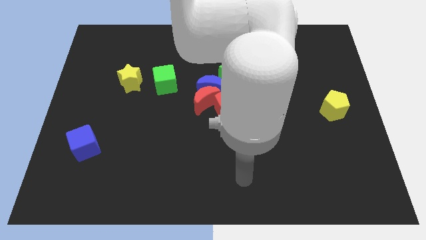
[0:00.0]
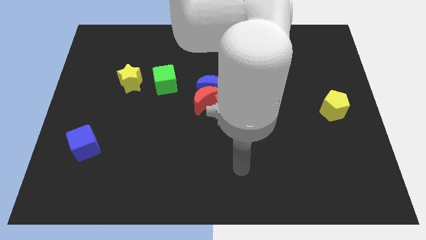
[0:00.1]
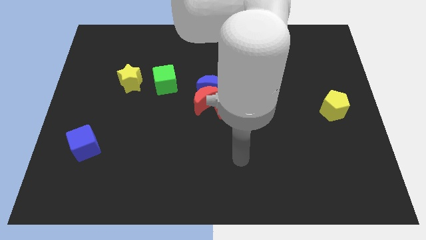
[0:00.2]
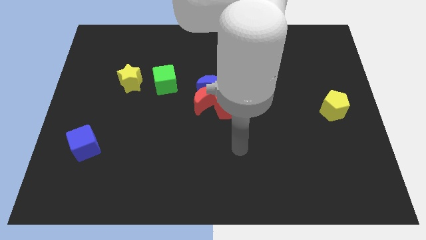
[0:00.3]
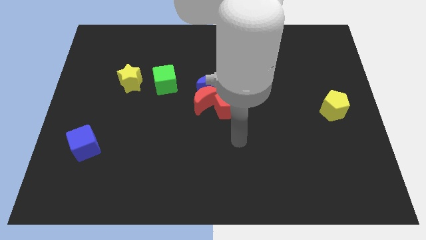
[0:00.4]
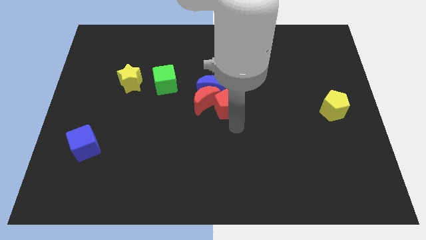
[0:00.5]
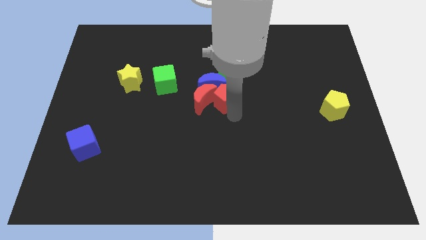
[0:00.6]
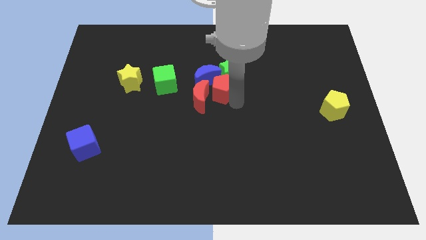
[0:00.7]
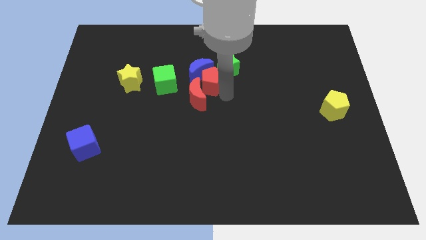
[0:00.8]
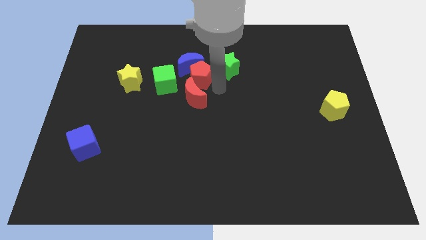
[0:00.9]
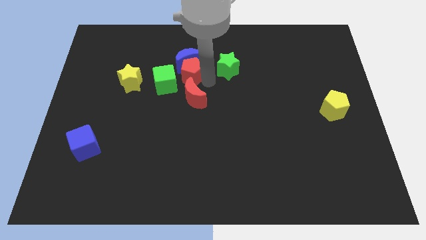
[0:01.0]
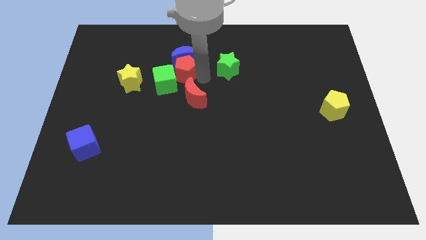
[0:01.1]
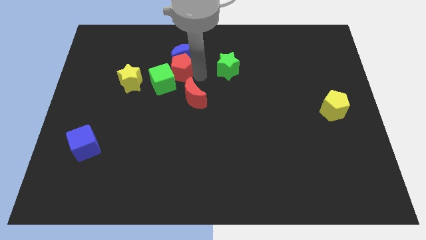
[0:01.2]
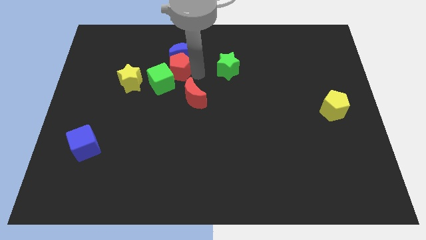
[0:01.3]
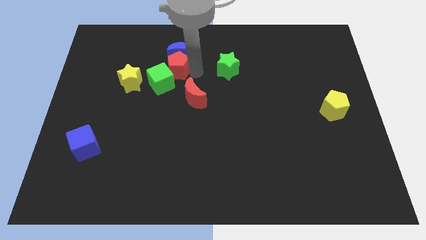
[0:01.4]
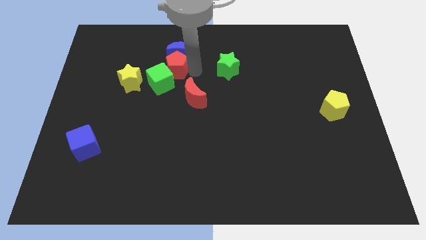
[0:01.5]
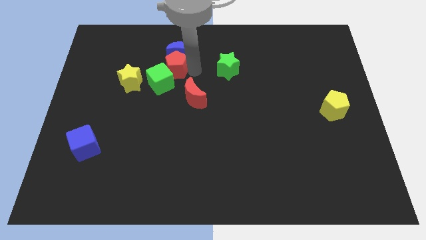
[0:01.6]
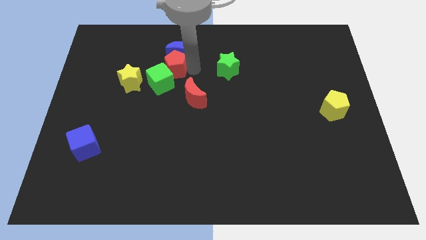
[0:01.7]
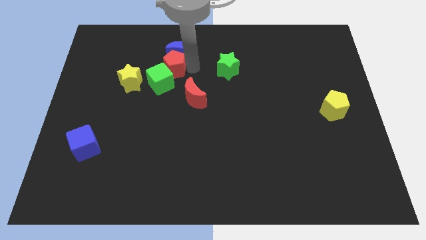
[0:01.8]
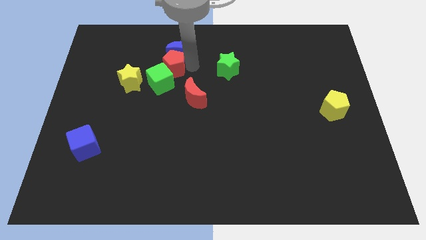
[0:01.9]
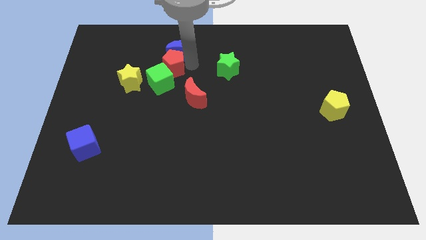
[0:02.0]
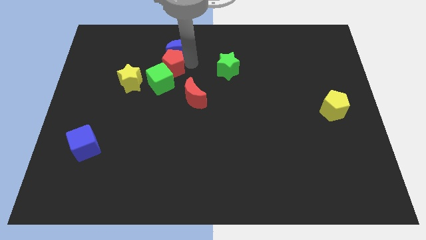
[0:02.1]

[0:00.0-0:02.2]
pull the blue moon apart from the clump

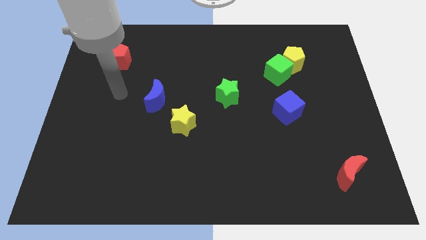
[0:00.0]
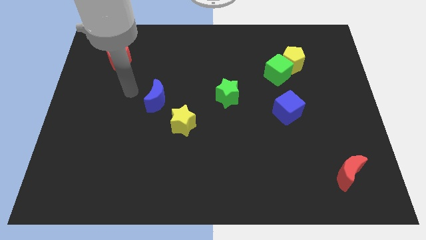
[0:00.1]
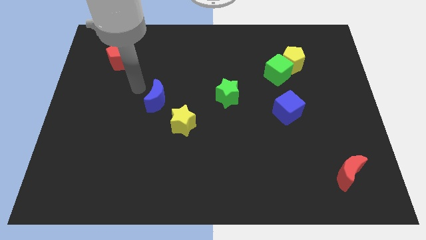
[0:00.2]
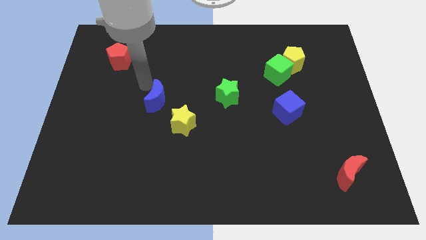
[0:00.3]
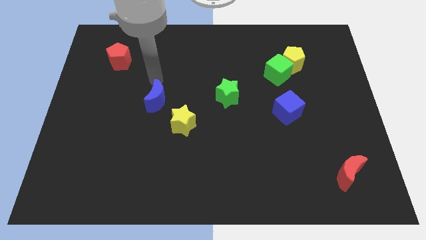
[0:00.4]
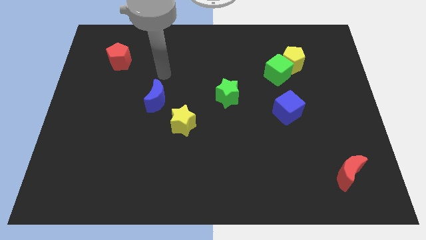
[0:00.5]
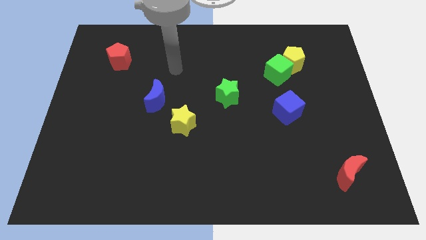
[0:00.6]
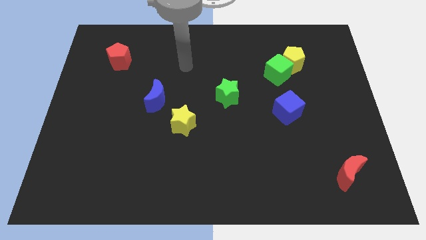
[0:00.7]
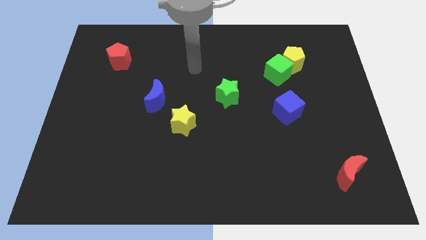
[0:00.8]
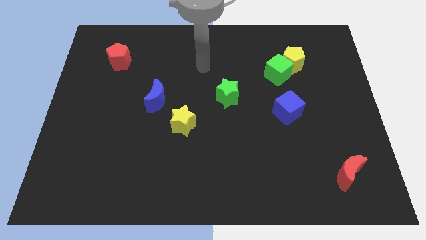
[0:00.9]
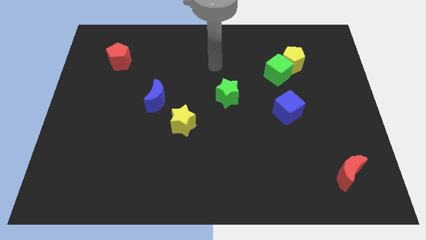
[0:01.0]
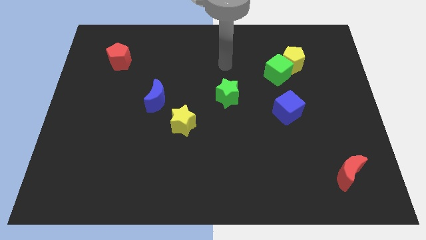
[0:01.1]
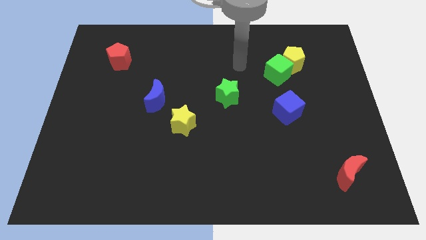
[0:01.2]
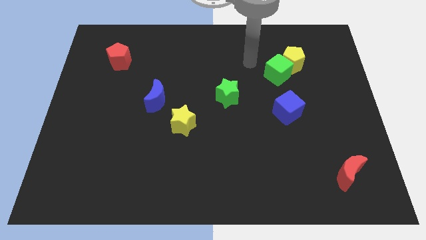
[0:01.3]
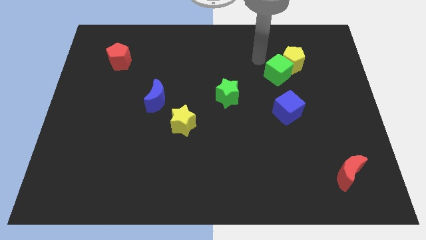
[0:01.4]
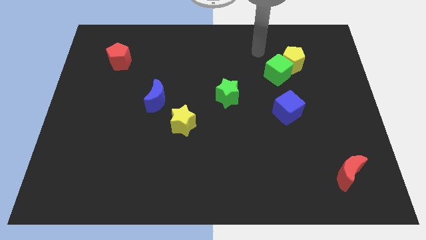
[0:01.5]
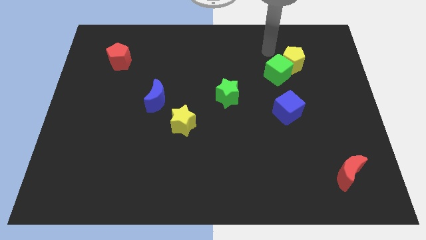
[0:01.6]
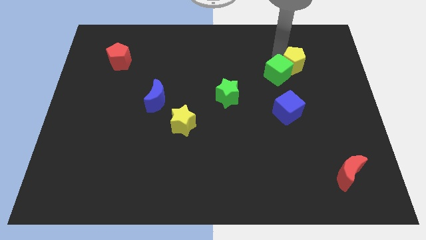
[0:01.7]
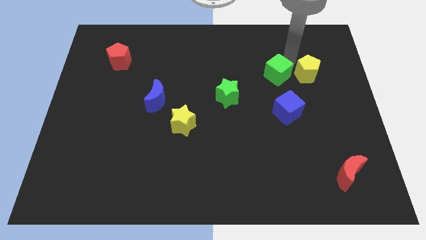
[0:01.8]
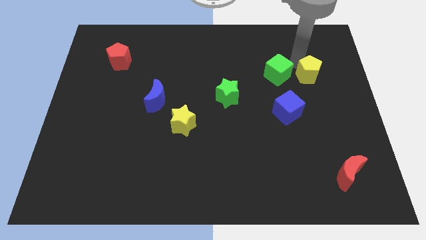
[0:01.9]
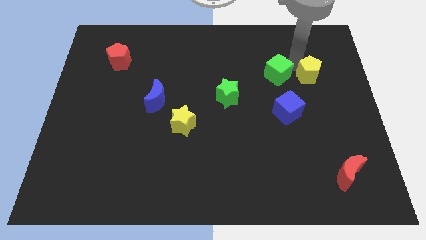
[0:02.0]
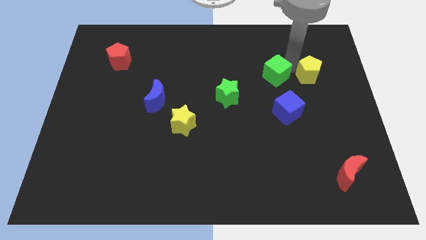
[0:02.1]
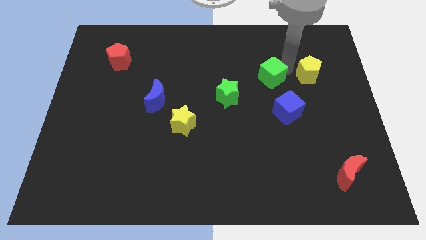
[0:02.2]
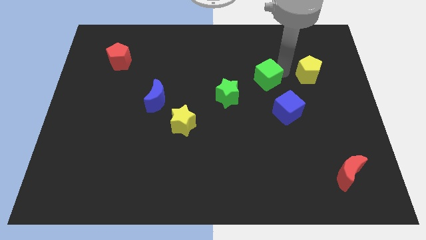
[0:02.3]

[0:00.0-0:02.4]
move the green cube away from the yellow pentagon

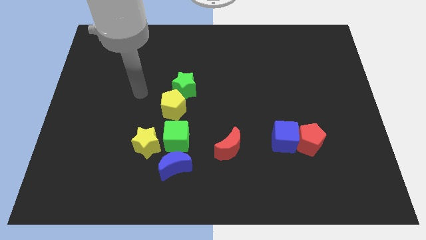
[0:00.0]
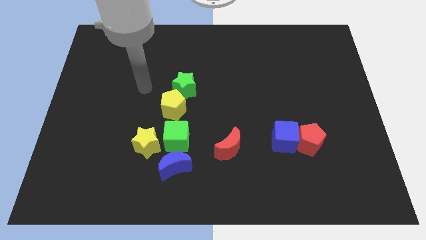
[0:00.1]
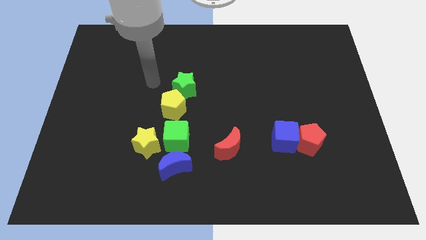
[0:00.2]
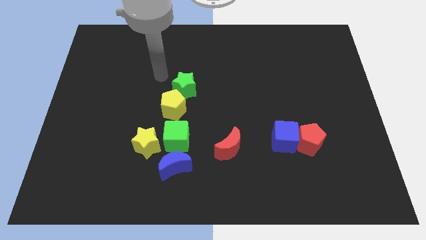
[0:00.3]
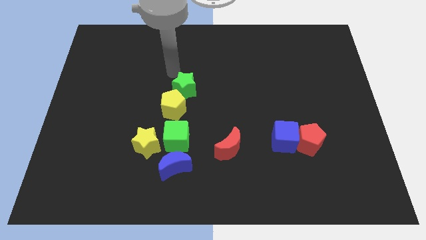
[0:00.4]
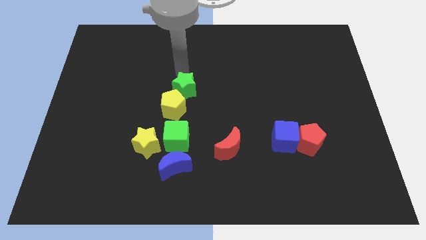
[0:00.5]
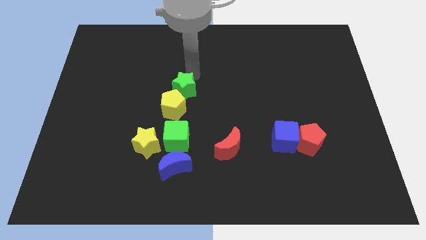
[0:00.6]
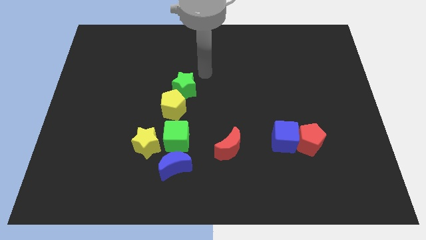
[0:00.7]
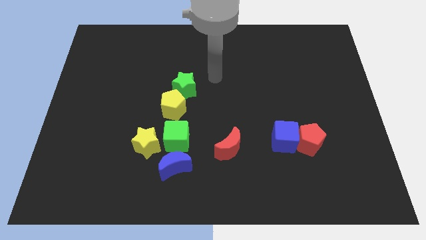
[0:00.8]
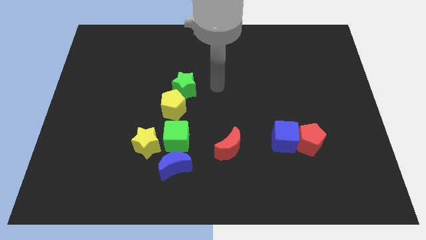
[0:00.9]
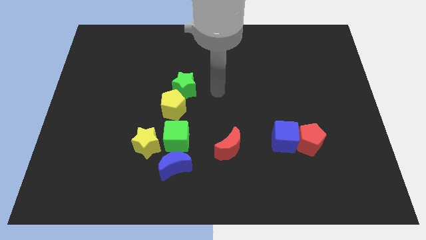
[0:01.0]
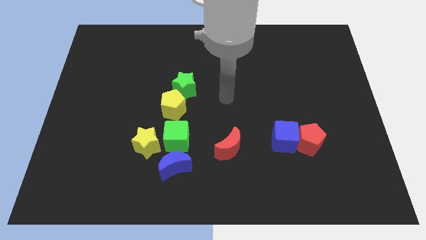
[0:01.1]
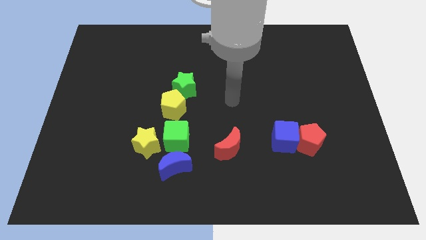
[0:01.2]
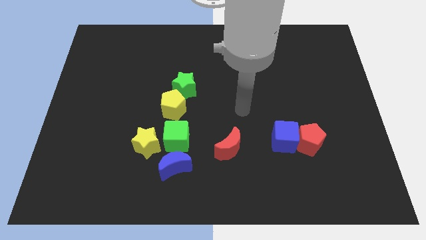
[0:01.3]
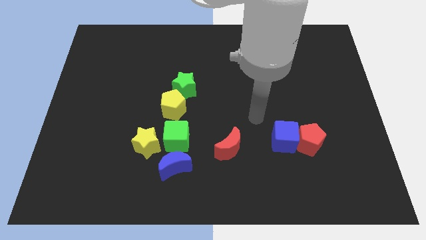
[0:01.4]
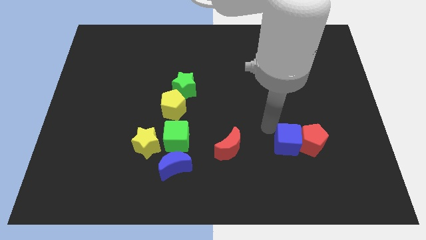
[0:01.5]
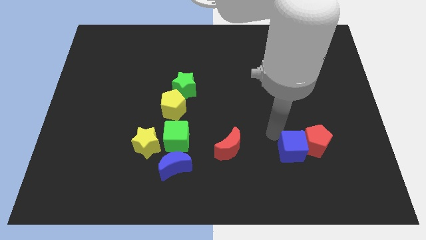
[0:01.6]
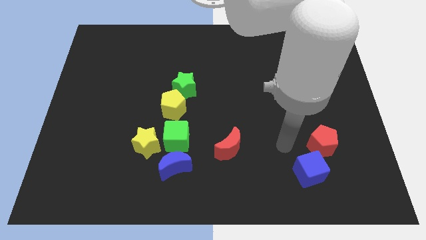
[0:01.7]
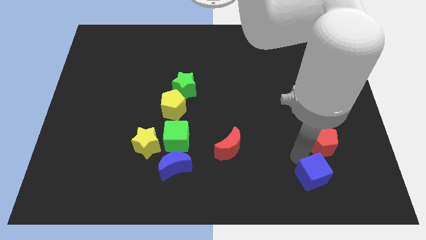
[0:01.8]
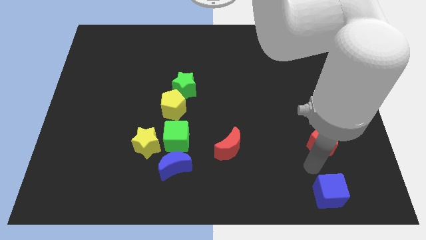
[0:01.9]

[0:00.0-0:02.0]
move the red pentagon away from the blue cube

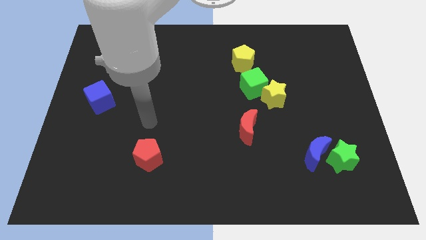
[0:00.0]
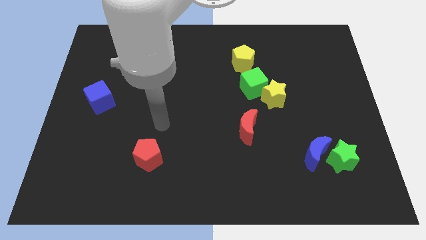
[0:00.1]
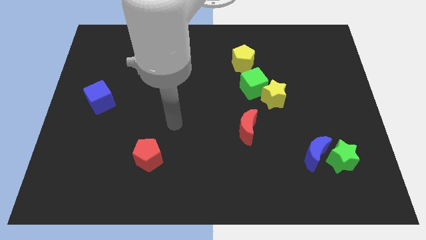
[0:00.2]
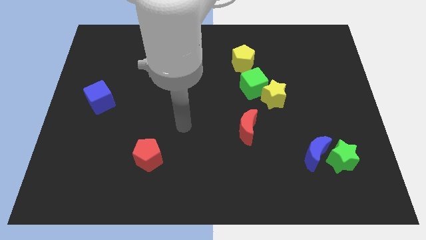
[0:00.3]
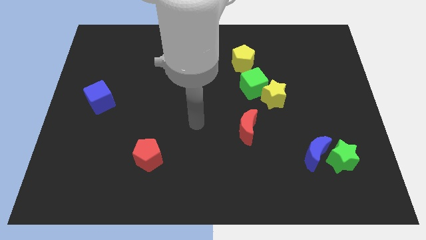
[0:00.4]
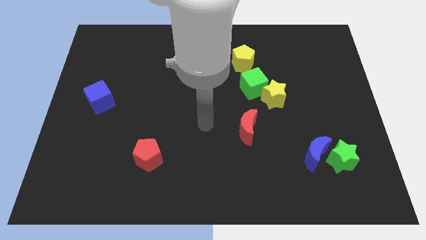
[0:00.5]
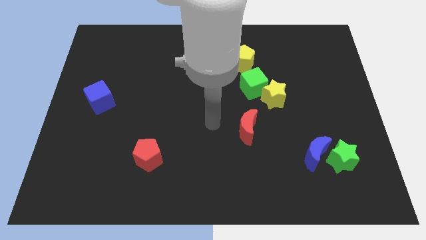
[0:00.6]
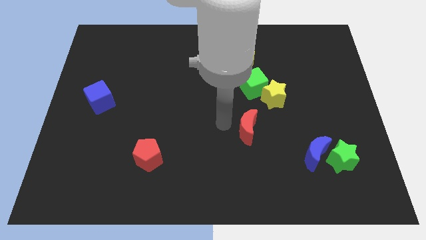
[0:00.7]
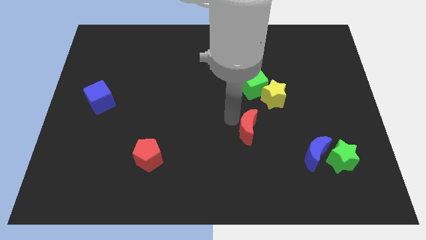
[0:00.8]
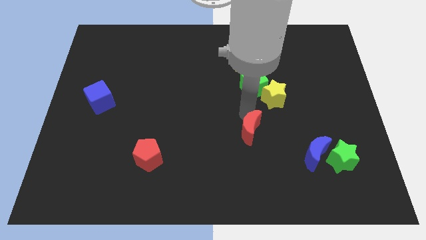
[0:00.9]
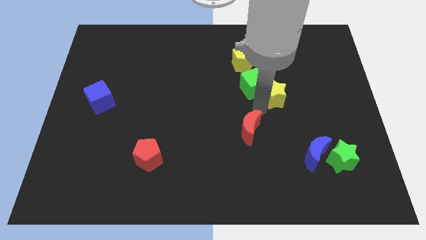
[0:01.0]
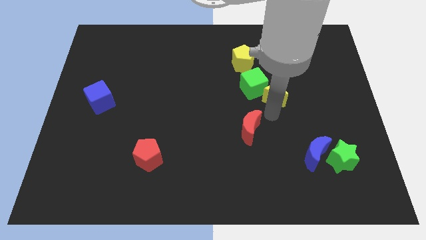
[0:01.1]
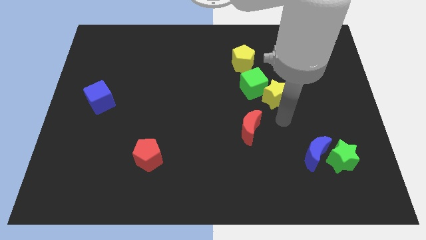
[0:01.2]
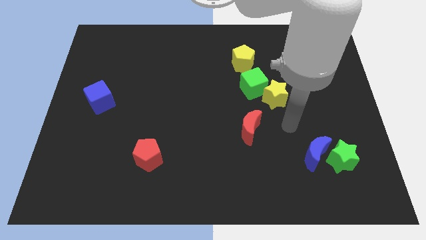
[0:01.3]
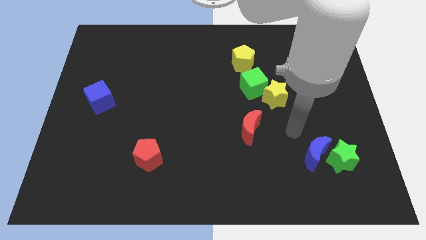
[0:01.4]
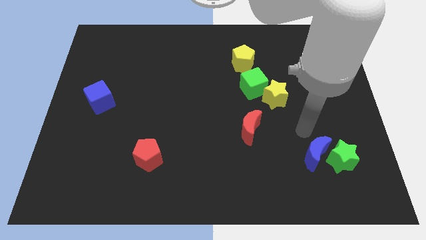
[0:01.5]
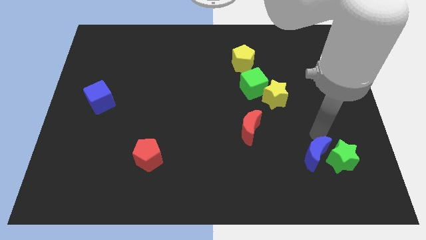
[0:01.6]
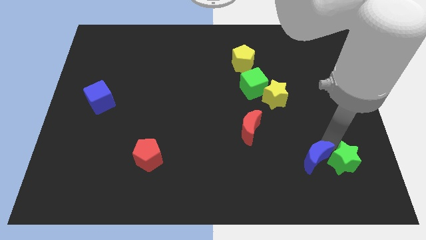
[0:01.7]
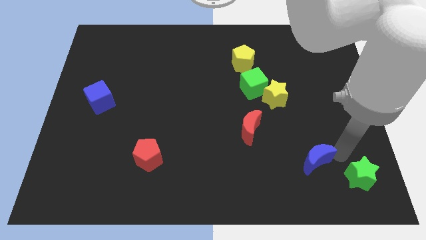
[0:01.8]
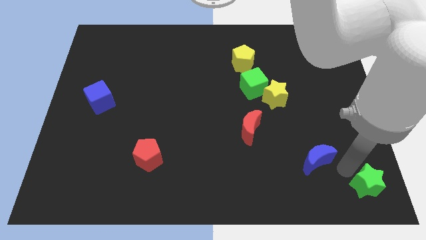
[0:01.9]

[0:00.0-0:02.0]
separate the blue moon from the green star

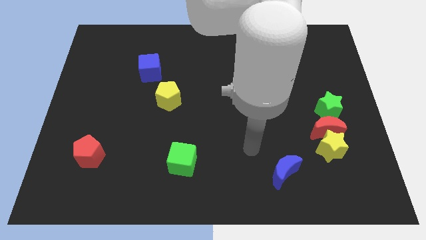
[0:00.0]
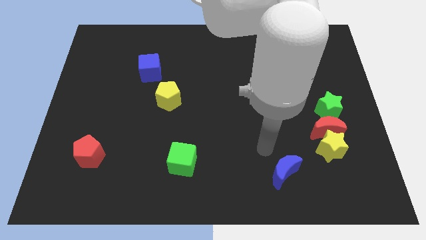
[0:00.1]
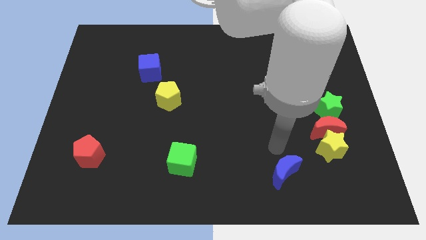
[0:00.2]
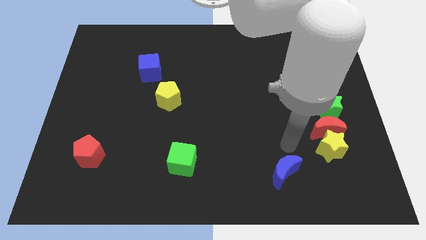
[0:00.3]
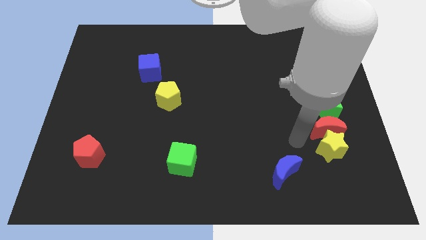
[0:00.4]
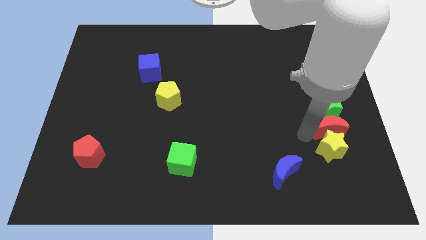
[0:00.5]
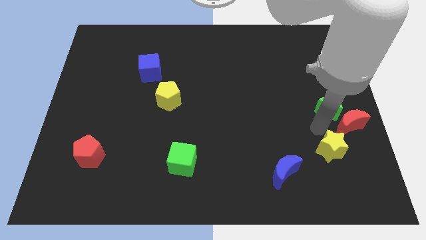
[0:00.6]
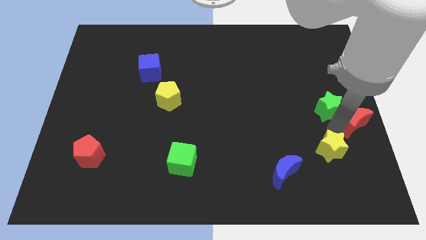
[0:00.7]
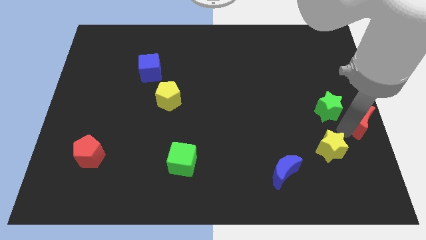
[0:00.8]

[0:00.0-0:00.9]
move the yellow star away from the red moon
